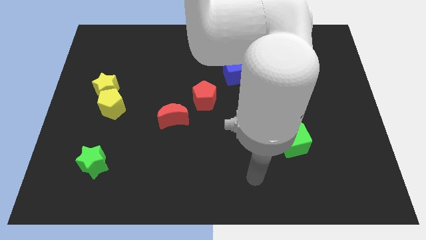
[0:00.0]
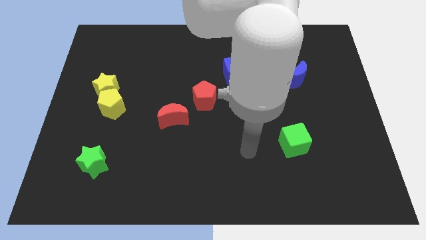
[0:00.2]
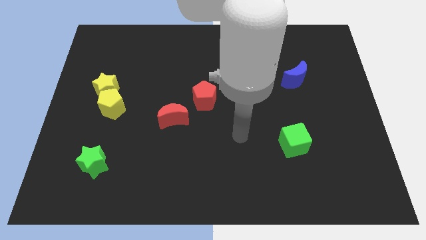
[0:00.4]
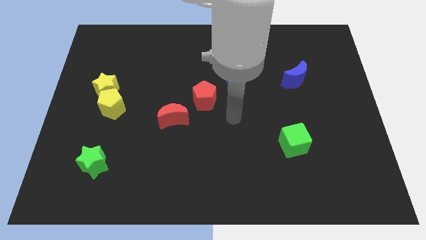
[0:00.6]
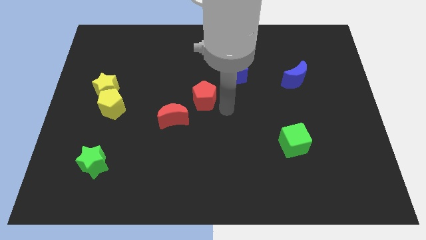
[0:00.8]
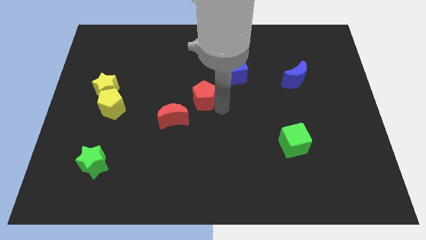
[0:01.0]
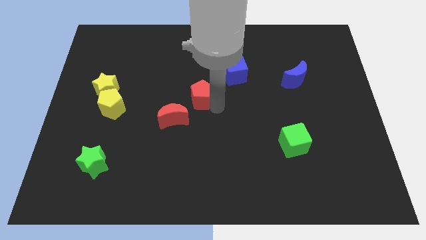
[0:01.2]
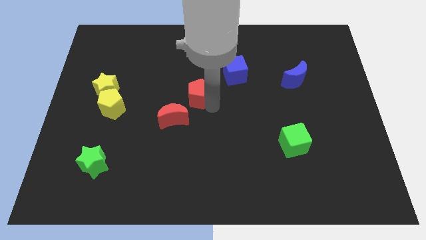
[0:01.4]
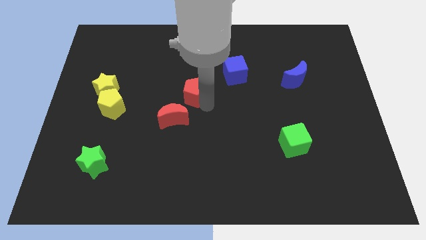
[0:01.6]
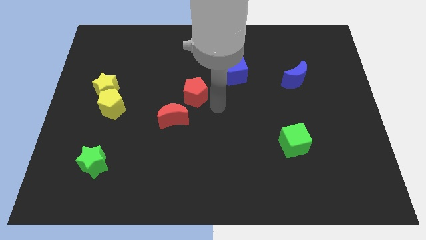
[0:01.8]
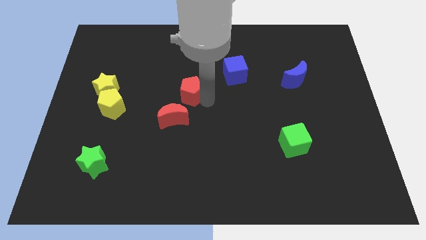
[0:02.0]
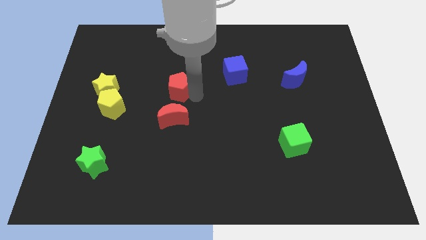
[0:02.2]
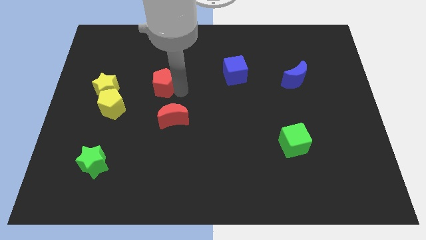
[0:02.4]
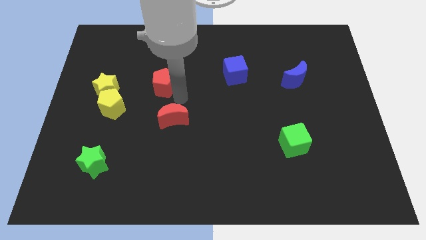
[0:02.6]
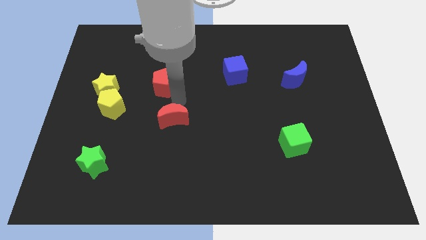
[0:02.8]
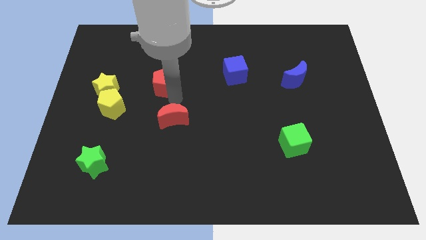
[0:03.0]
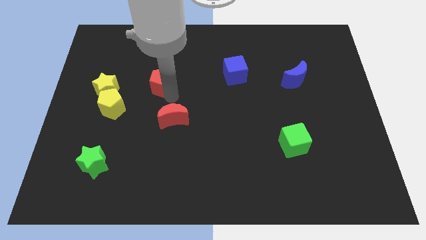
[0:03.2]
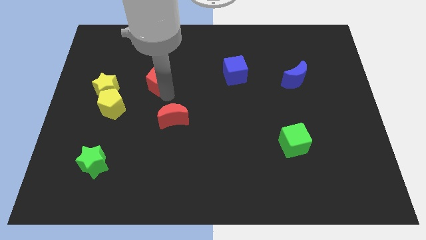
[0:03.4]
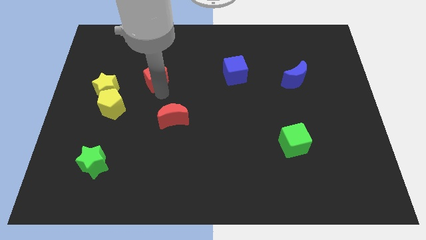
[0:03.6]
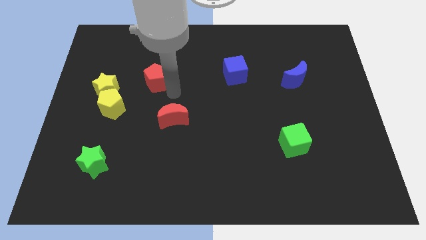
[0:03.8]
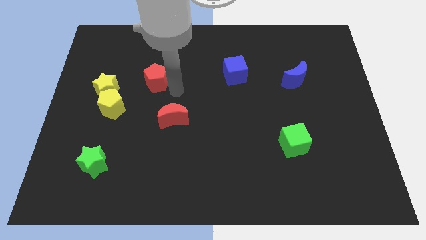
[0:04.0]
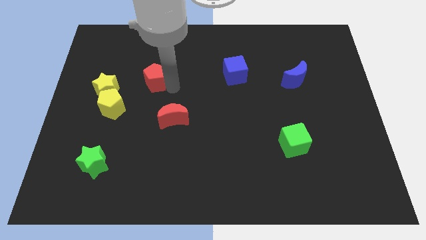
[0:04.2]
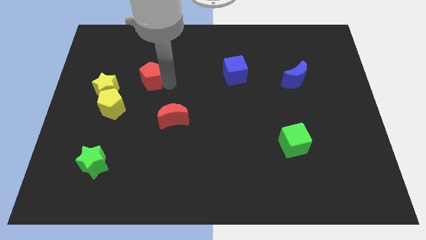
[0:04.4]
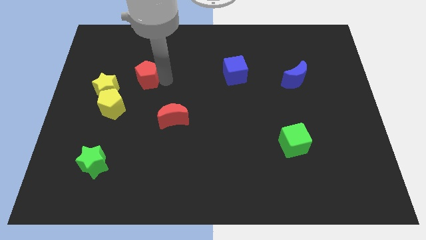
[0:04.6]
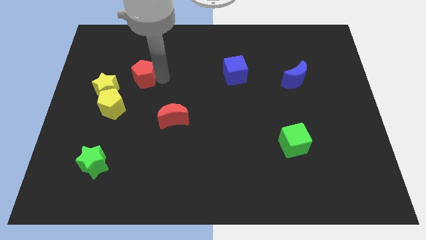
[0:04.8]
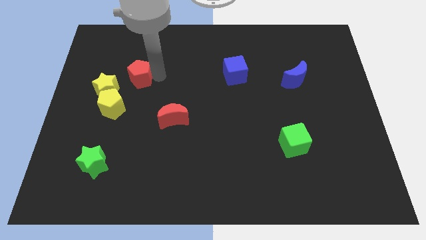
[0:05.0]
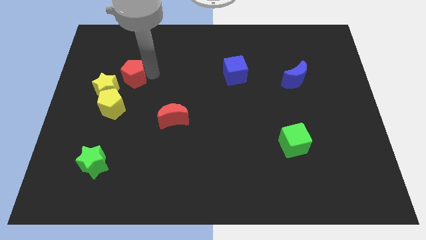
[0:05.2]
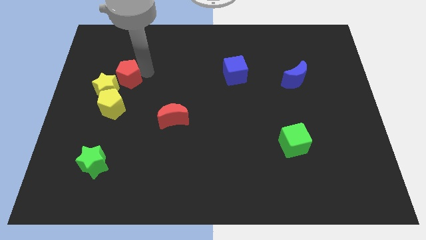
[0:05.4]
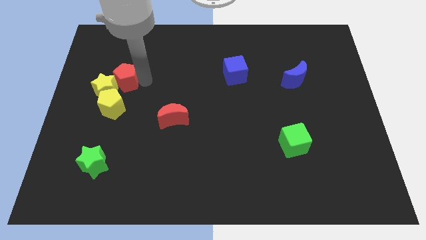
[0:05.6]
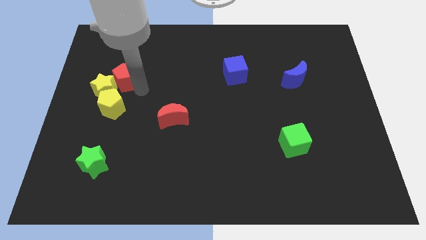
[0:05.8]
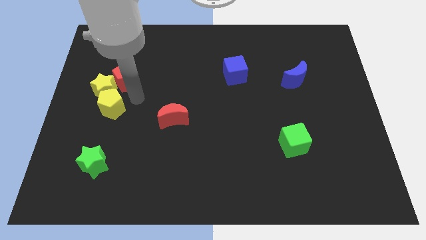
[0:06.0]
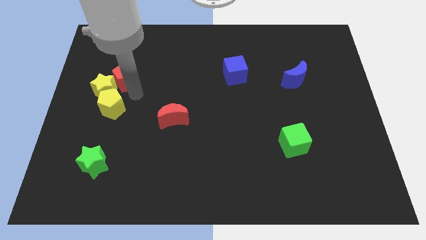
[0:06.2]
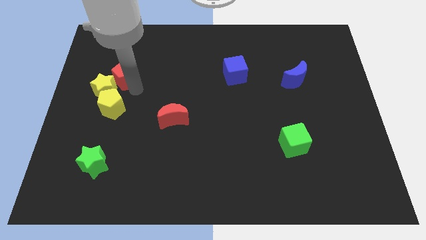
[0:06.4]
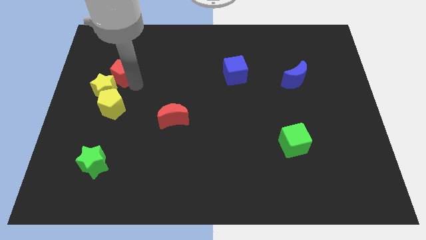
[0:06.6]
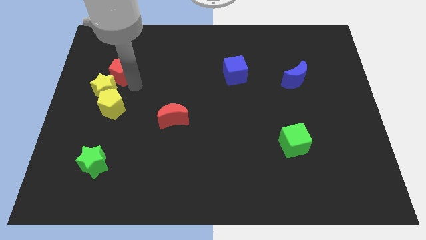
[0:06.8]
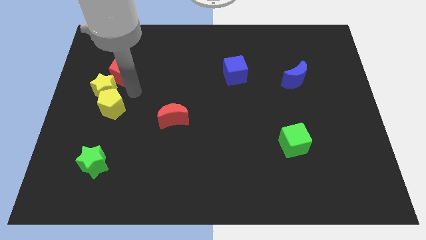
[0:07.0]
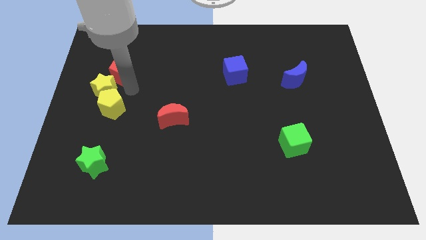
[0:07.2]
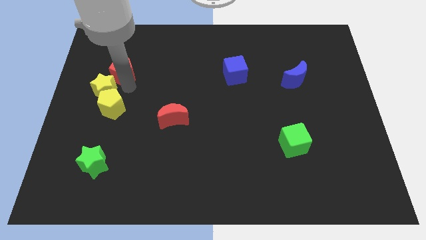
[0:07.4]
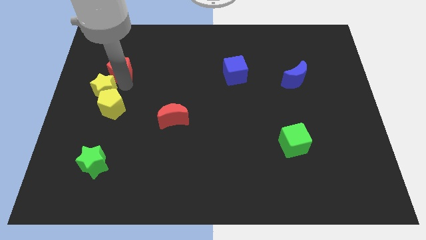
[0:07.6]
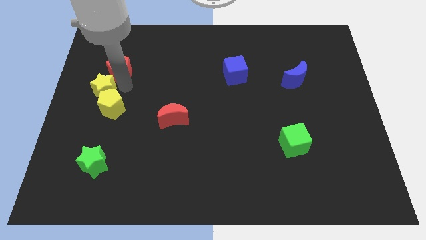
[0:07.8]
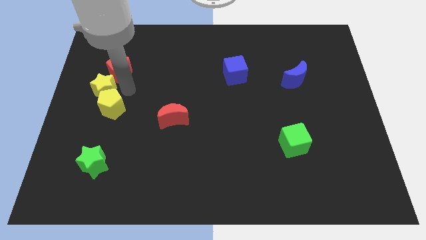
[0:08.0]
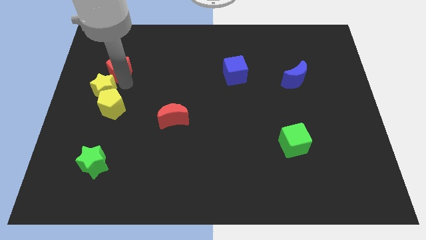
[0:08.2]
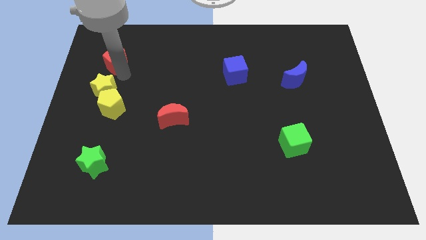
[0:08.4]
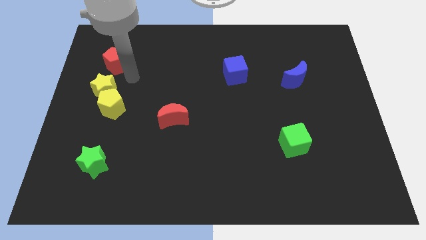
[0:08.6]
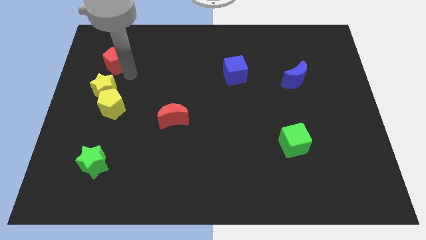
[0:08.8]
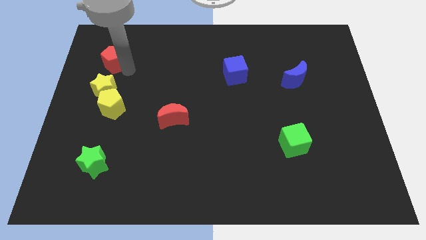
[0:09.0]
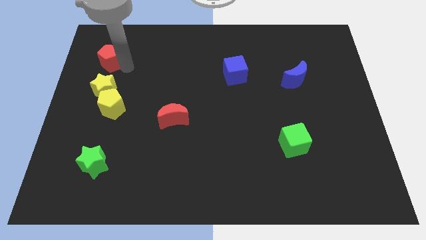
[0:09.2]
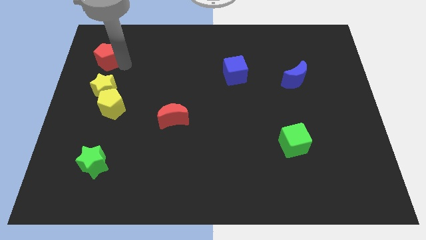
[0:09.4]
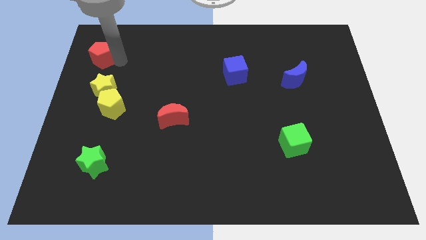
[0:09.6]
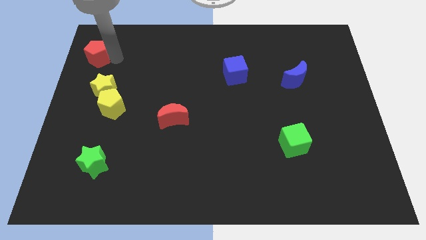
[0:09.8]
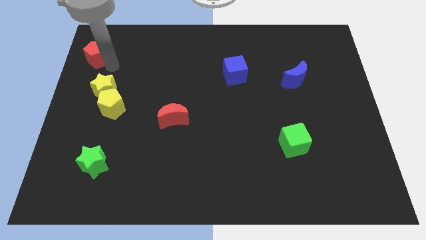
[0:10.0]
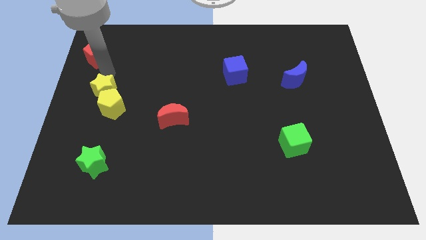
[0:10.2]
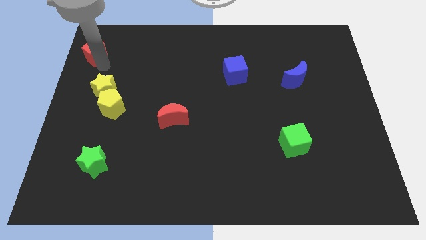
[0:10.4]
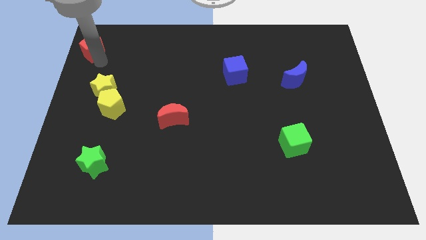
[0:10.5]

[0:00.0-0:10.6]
slide the red pentagon to the upper left corner

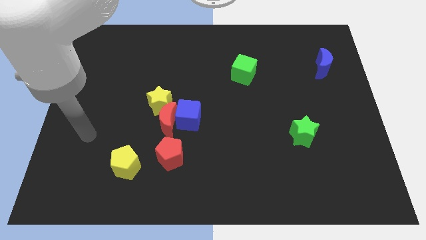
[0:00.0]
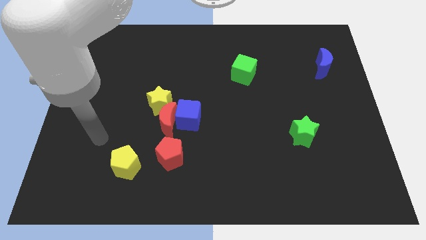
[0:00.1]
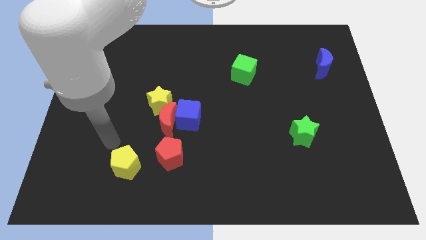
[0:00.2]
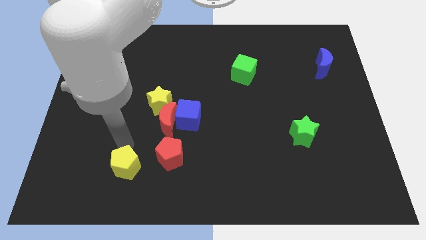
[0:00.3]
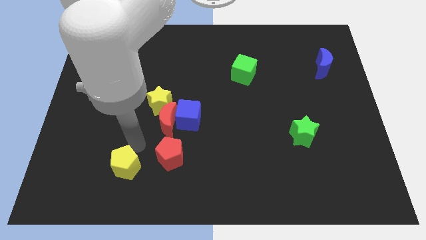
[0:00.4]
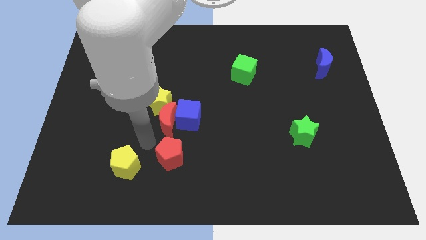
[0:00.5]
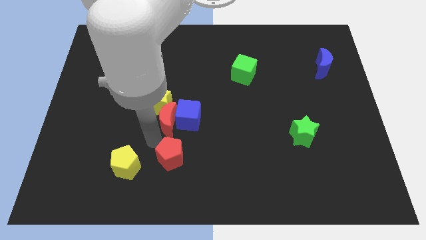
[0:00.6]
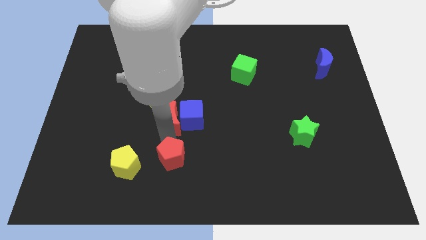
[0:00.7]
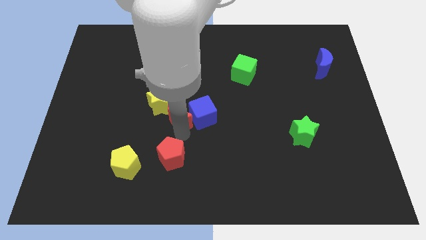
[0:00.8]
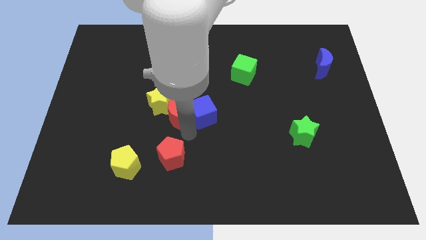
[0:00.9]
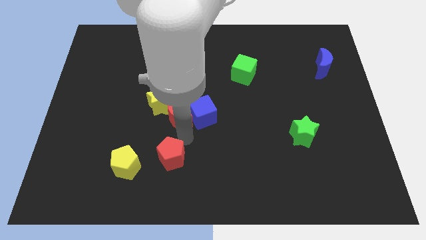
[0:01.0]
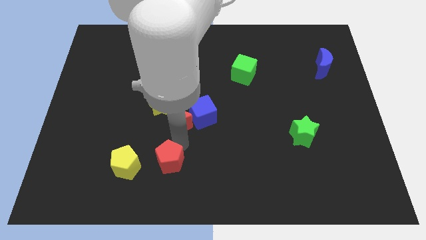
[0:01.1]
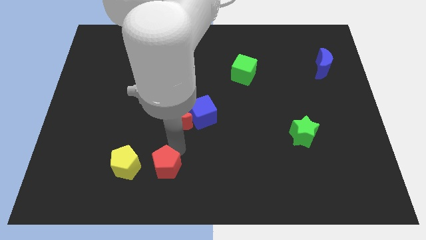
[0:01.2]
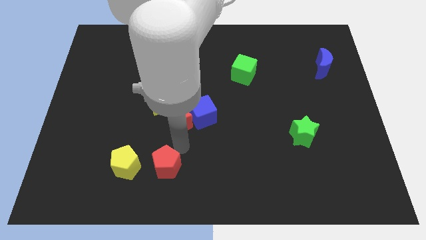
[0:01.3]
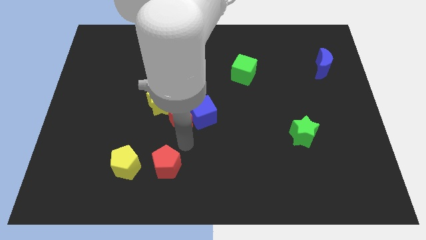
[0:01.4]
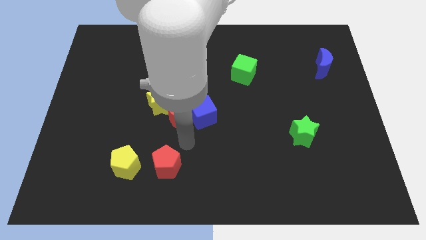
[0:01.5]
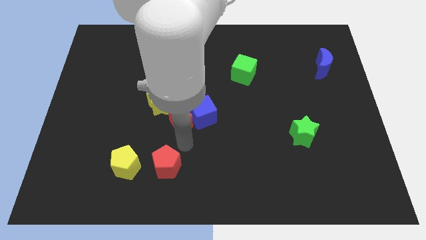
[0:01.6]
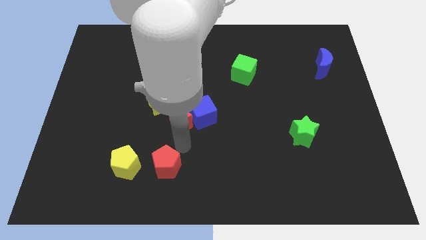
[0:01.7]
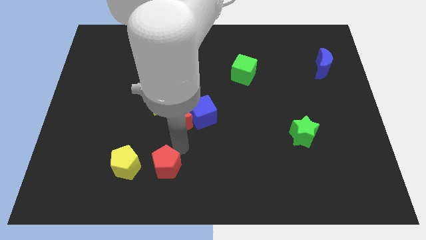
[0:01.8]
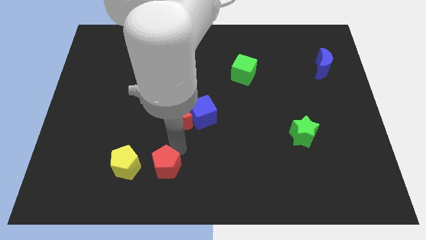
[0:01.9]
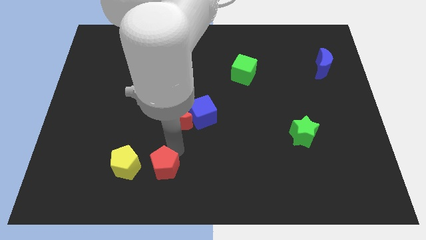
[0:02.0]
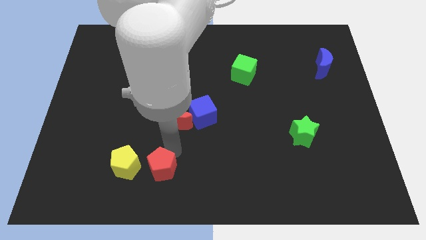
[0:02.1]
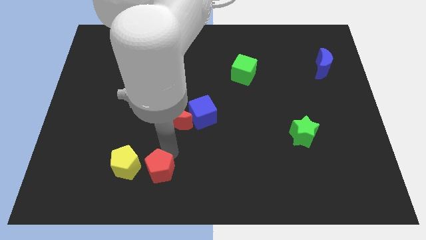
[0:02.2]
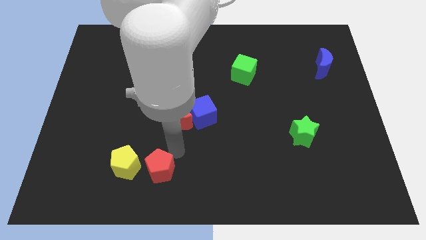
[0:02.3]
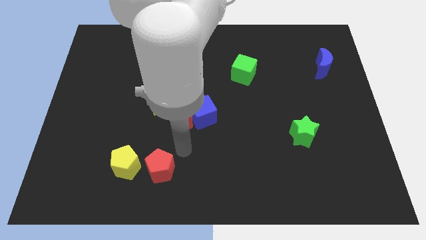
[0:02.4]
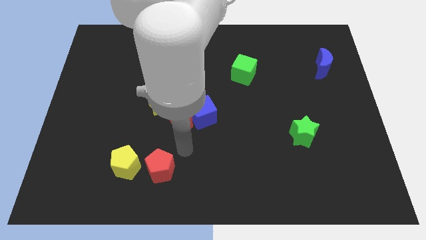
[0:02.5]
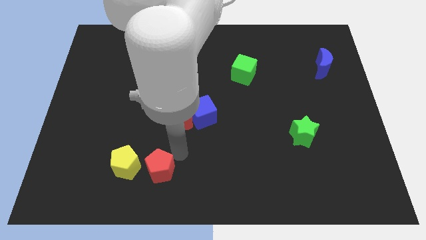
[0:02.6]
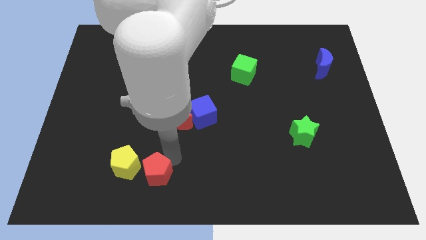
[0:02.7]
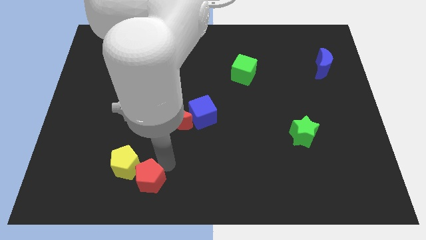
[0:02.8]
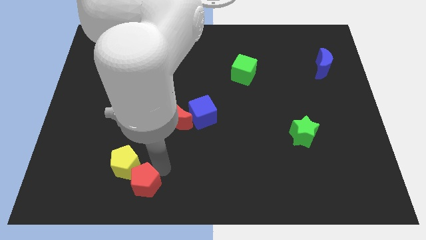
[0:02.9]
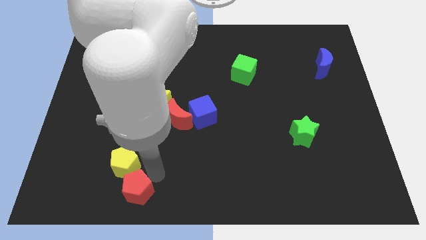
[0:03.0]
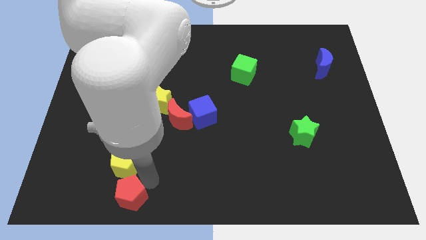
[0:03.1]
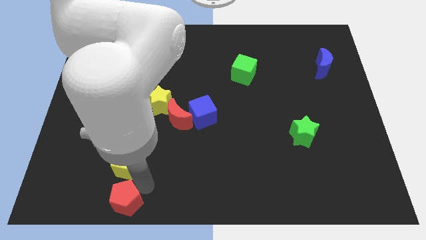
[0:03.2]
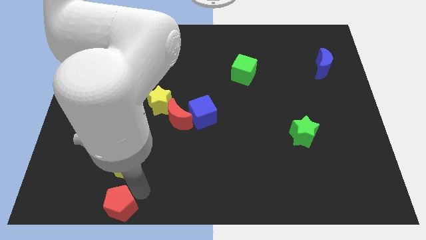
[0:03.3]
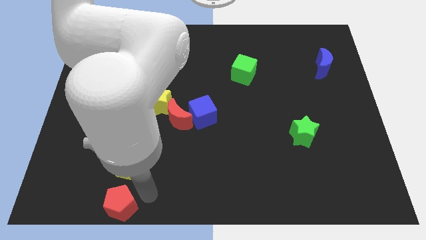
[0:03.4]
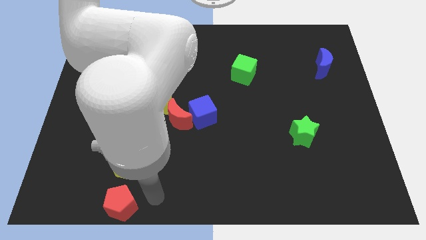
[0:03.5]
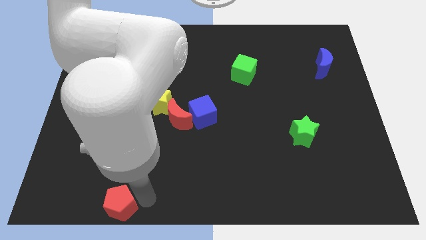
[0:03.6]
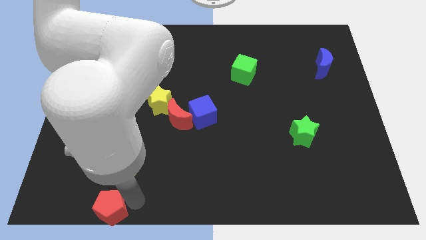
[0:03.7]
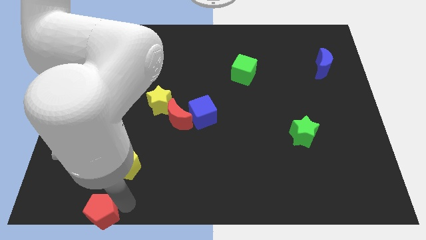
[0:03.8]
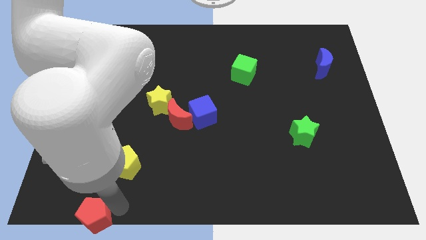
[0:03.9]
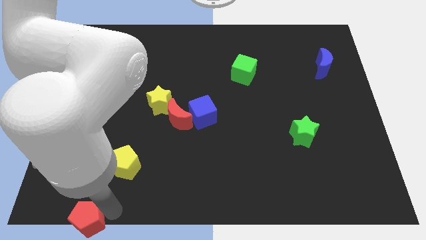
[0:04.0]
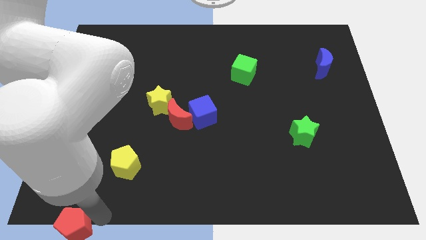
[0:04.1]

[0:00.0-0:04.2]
move the red pentagon to the bottom left corner
